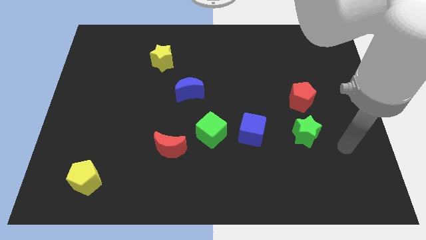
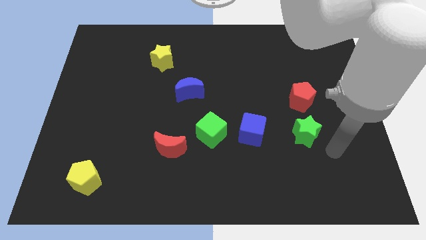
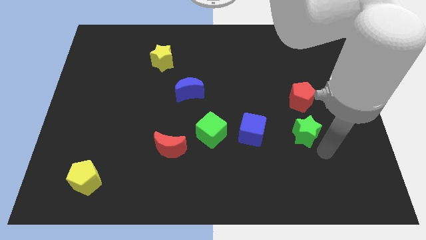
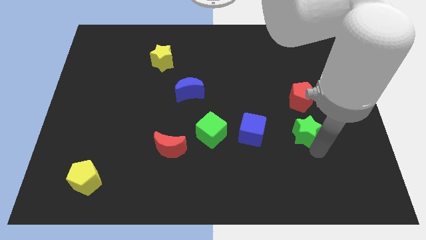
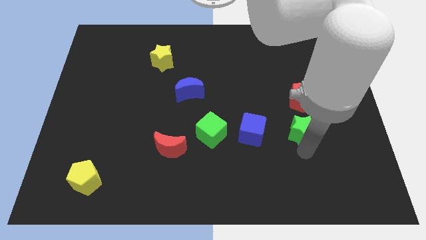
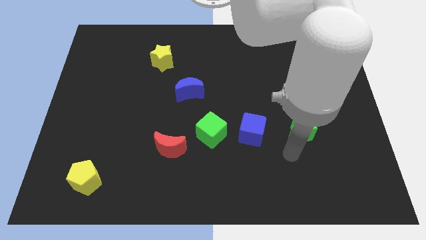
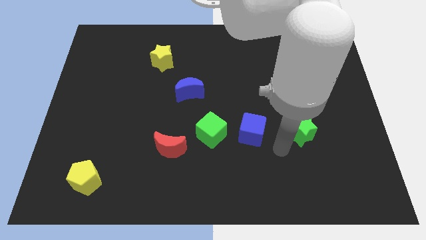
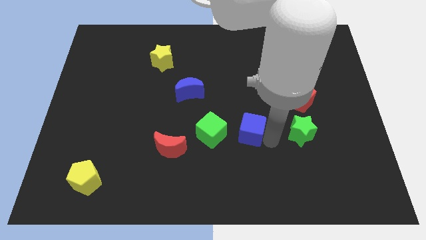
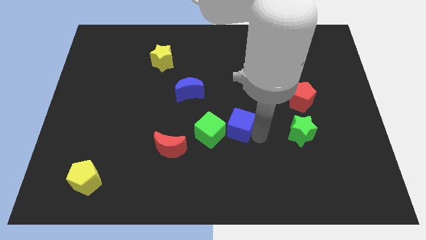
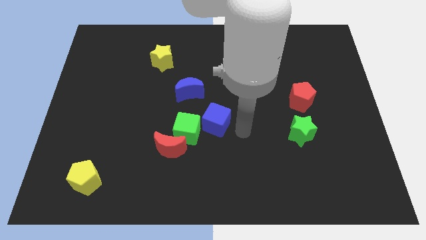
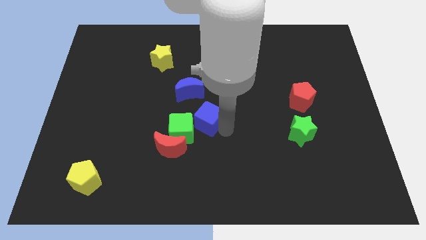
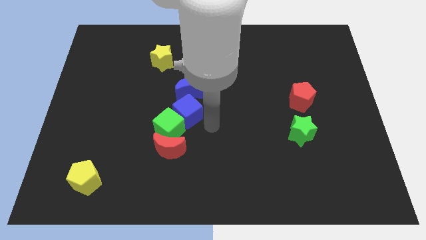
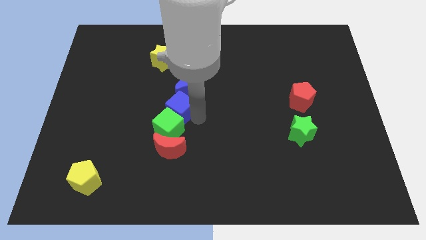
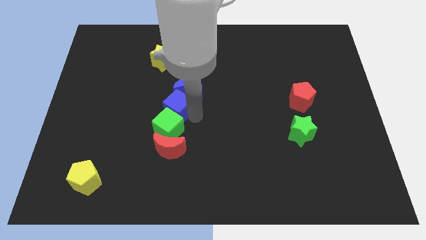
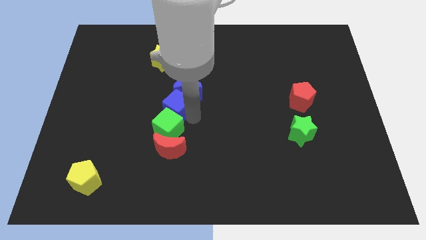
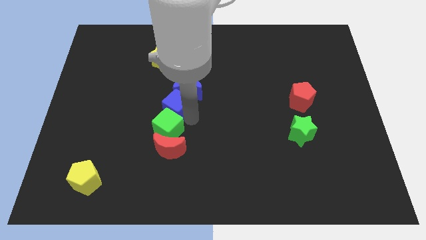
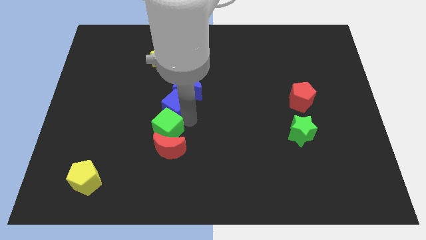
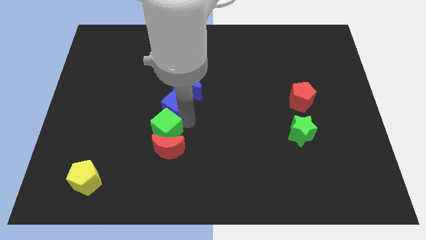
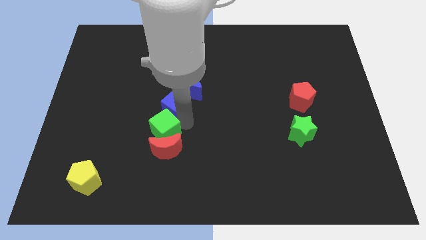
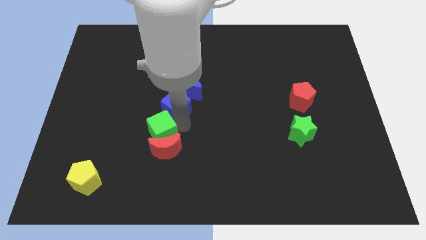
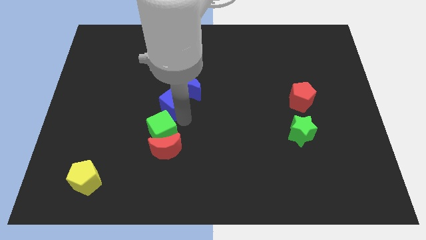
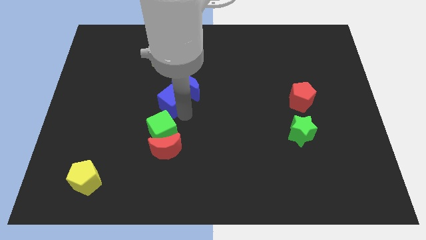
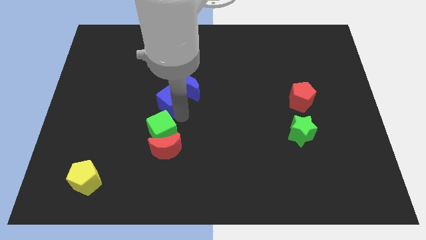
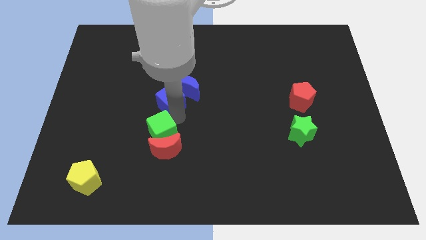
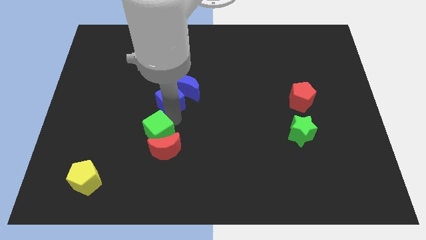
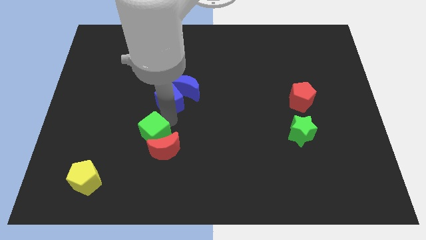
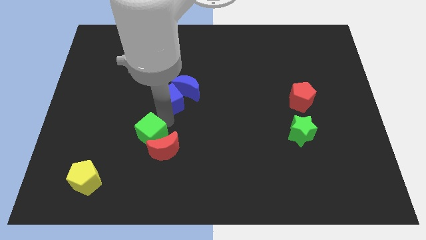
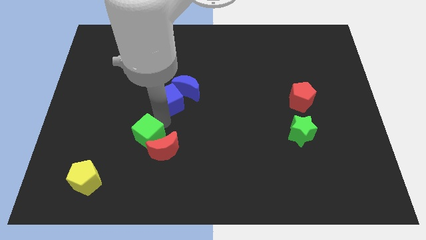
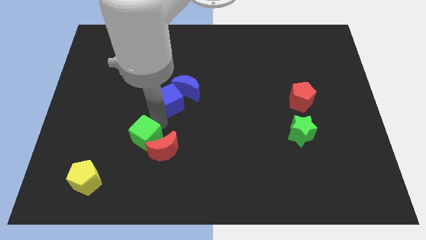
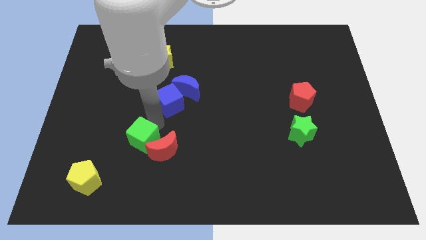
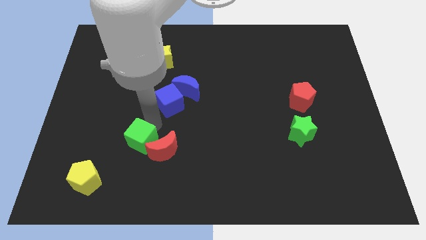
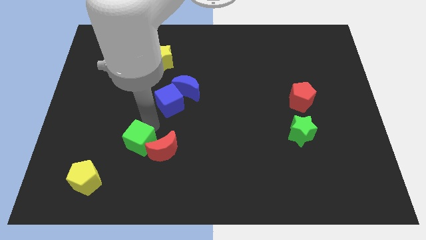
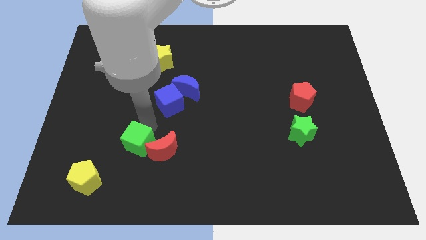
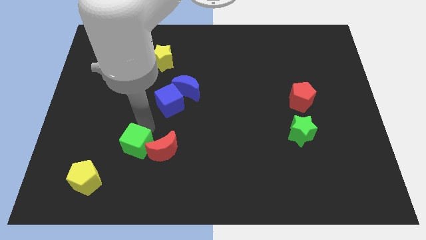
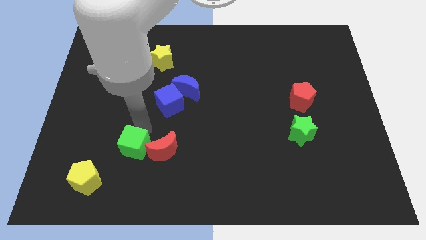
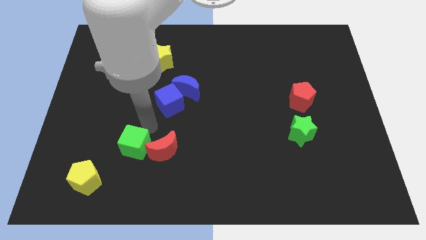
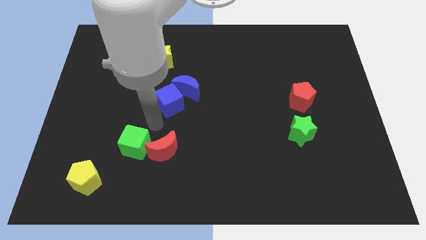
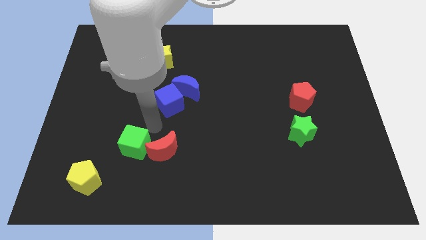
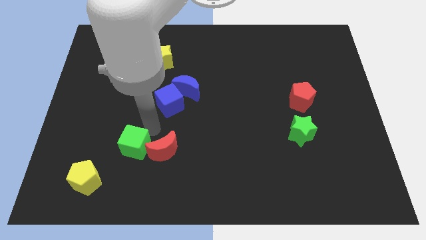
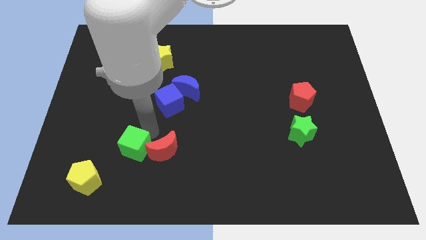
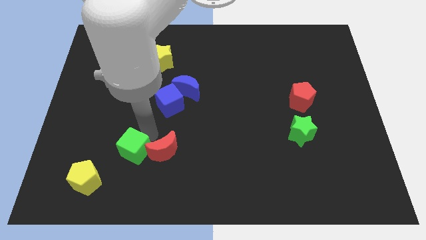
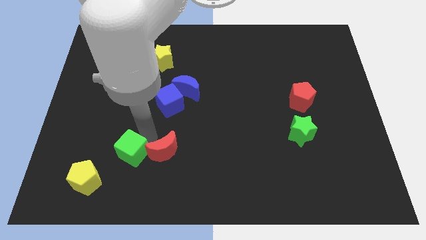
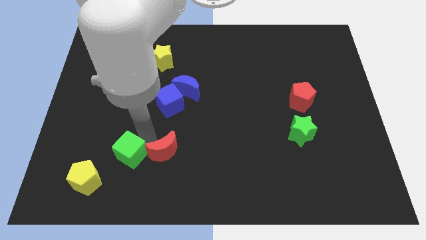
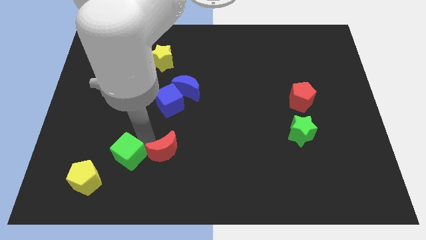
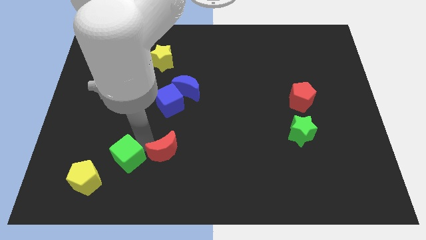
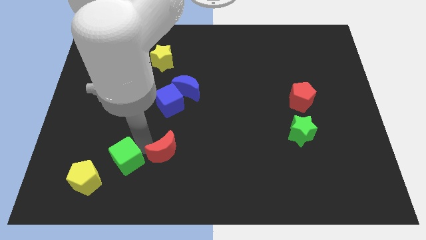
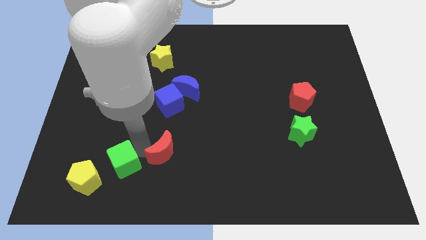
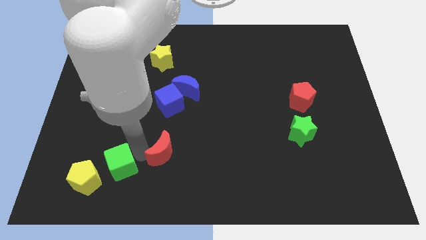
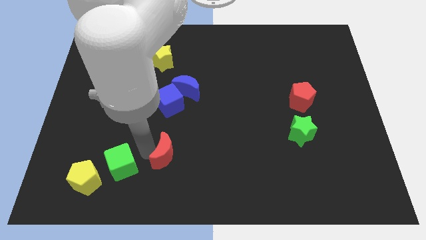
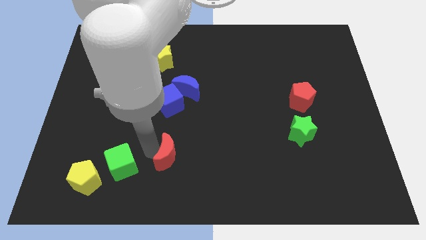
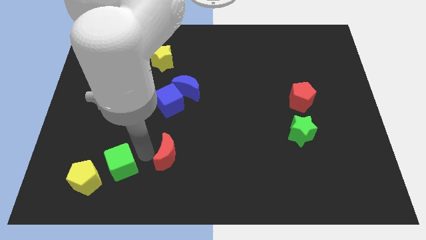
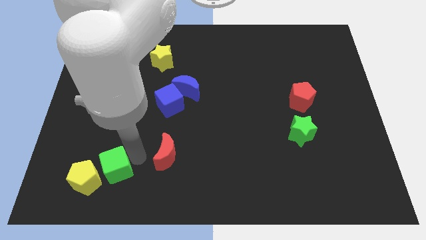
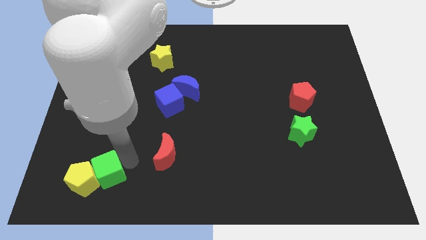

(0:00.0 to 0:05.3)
push the green cube next to the yellow pentagon

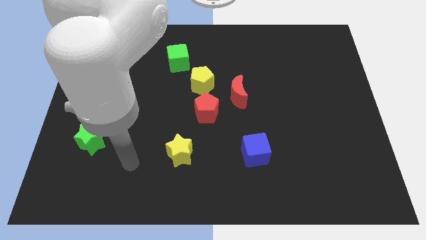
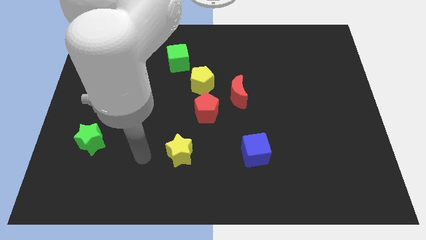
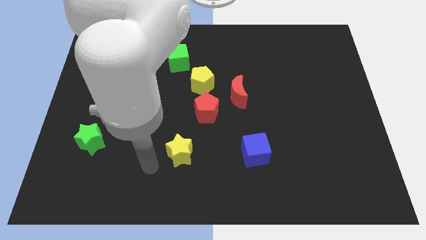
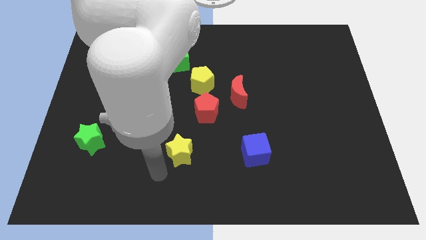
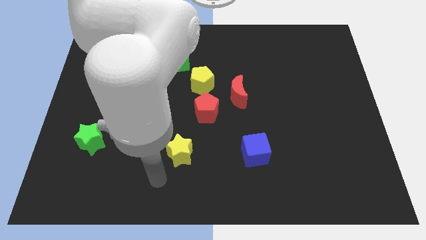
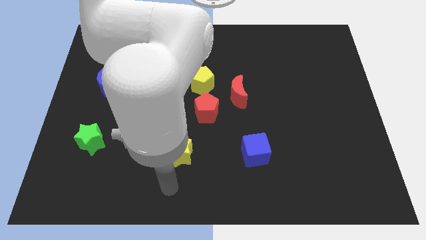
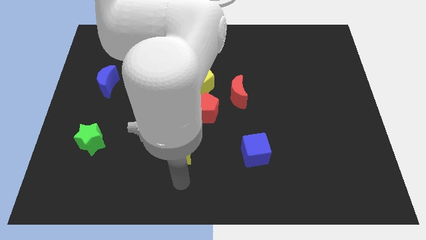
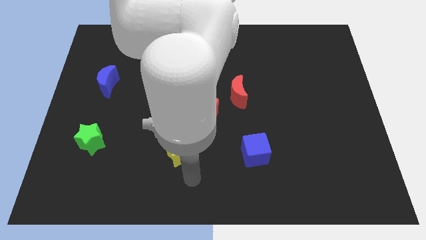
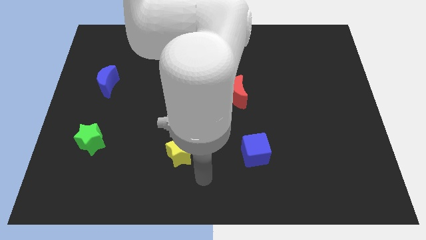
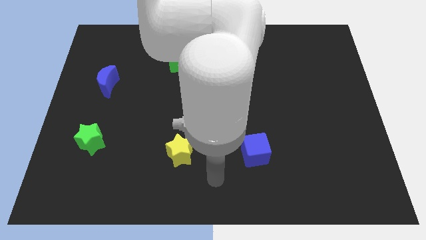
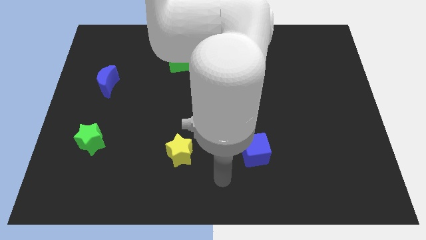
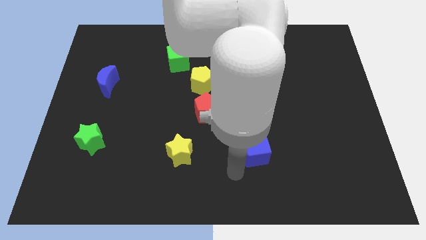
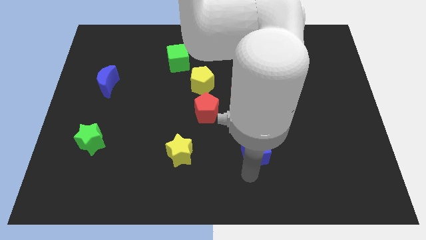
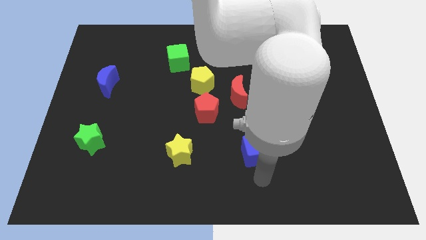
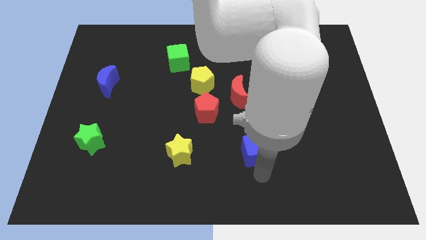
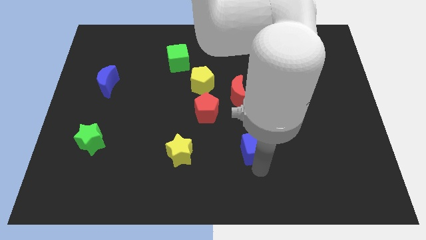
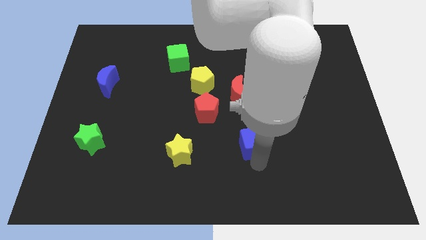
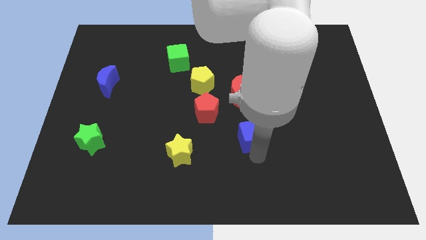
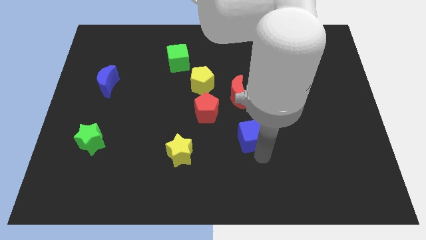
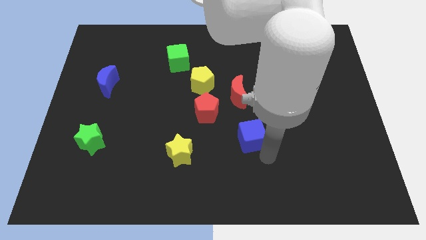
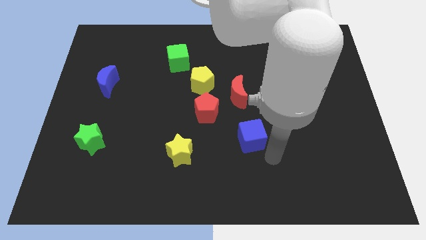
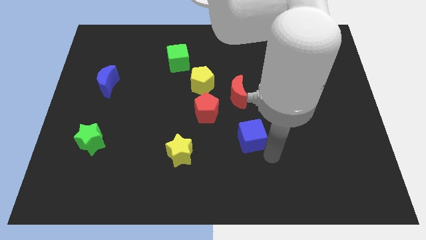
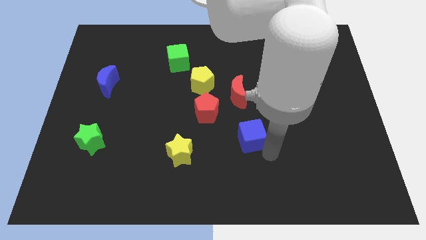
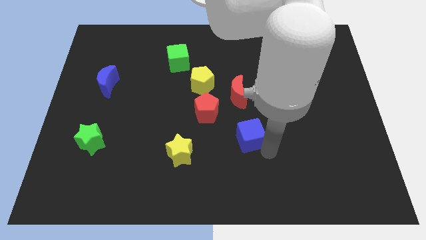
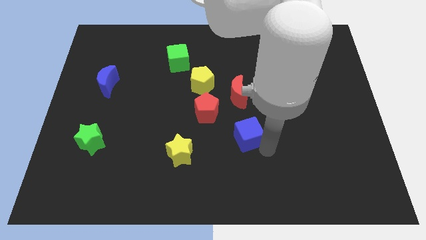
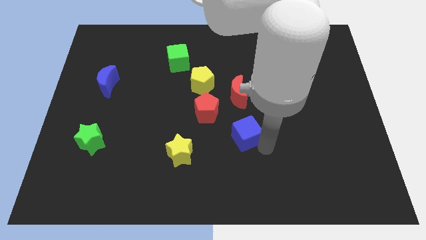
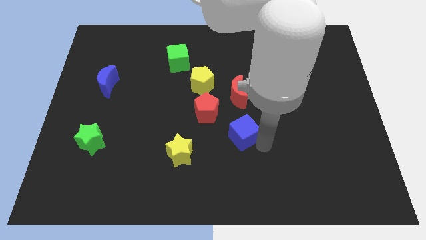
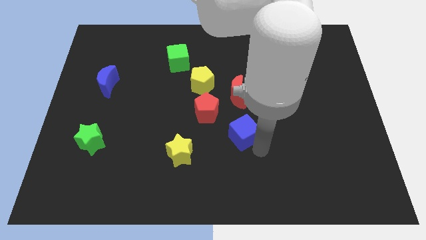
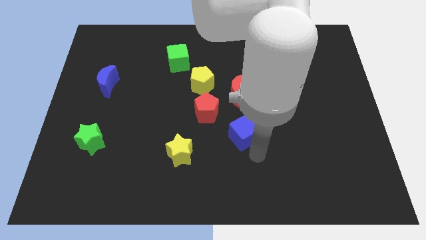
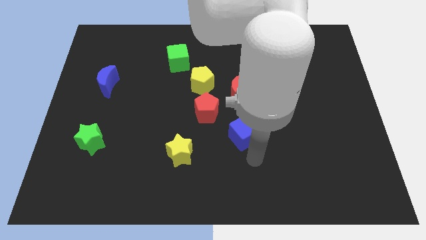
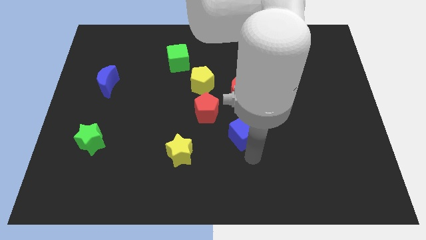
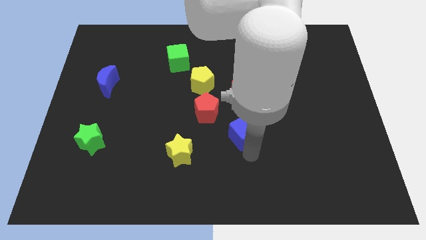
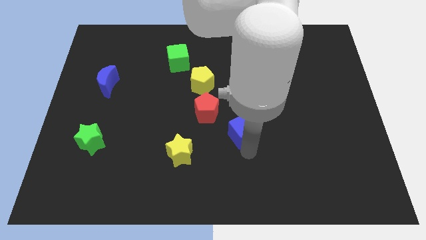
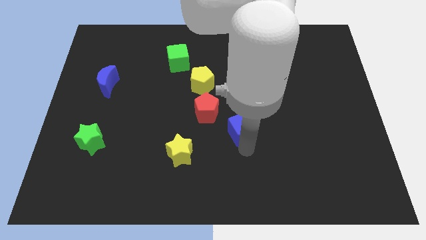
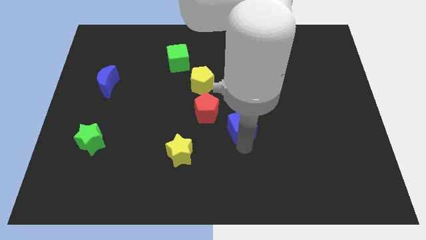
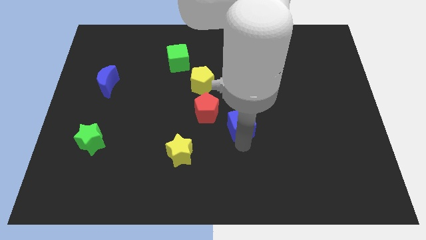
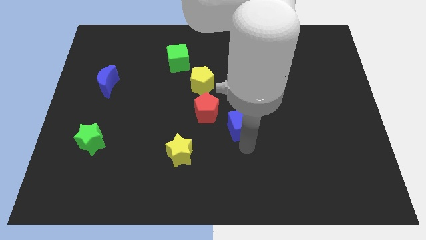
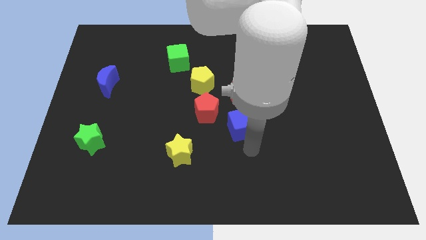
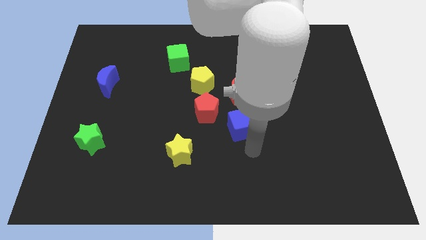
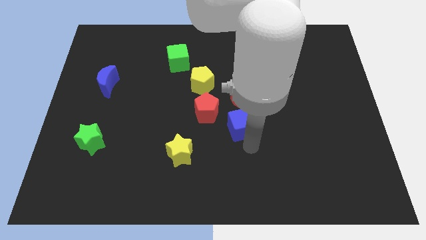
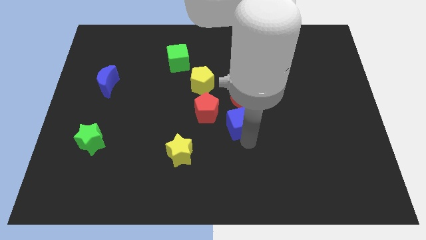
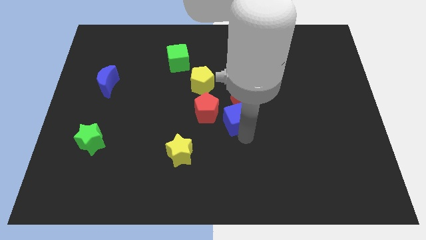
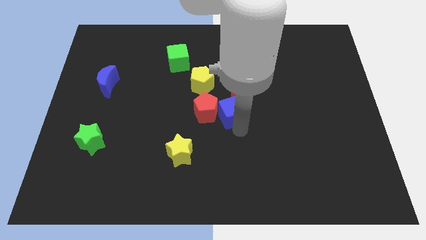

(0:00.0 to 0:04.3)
put the blue cube towards the red moon
